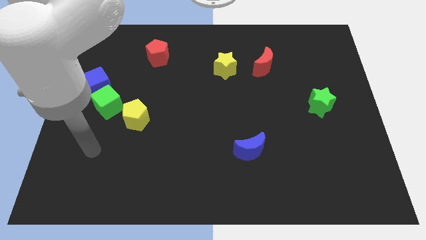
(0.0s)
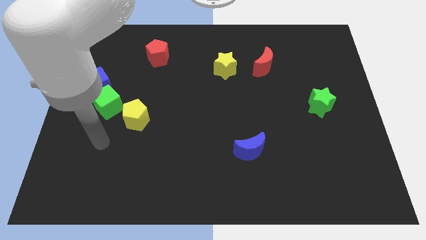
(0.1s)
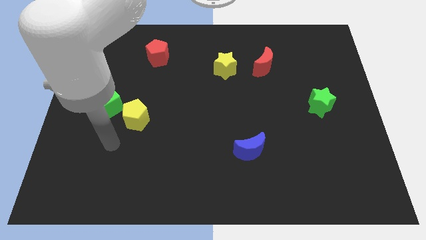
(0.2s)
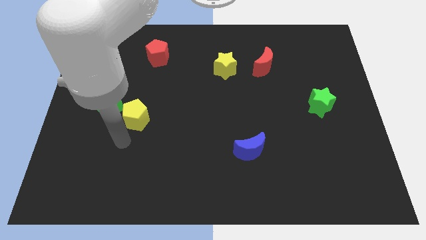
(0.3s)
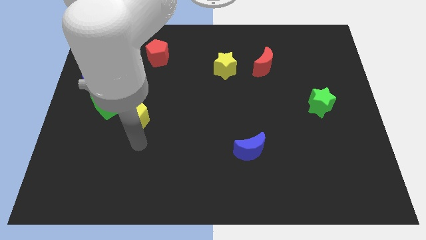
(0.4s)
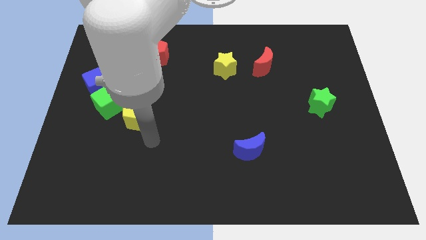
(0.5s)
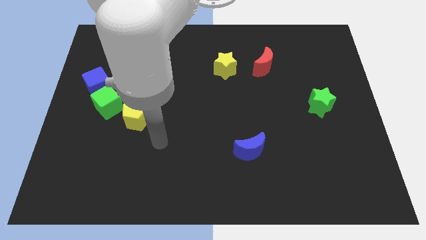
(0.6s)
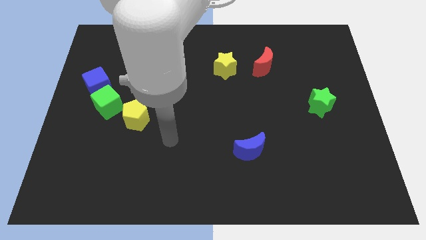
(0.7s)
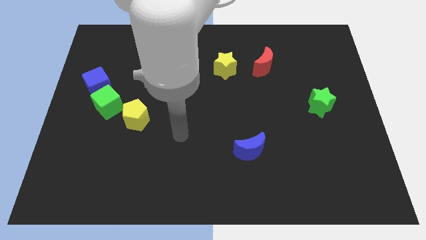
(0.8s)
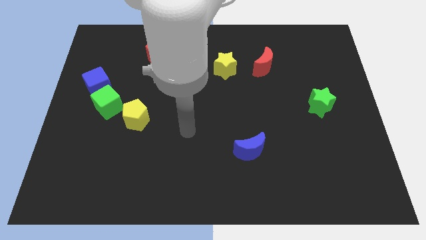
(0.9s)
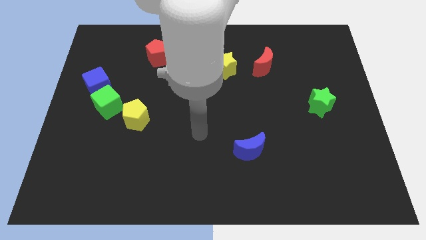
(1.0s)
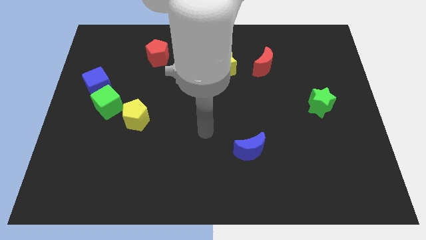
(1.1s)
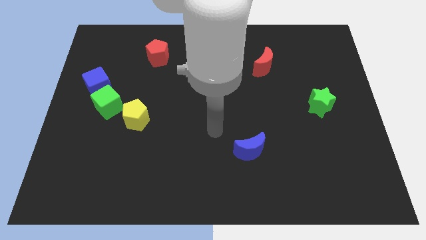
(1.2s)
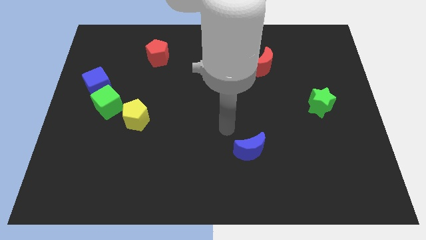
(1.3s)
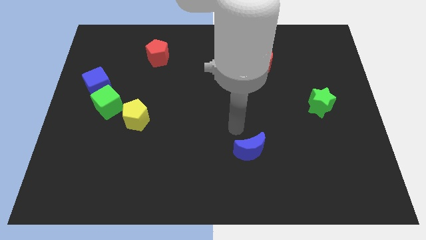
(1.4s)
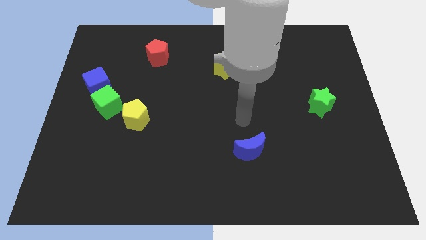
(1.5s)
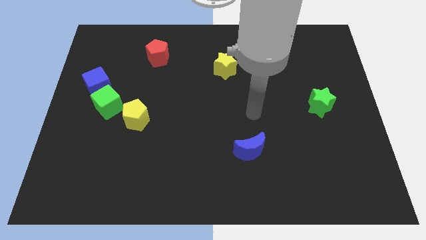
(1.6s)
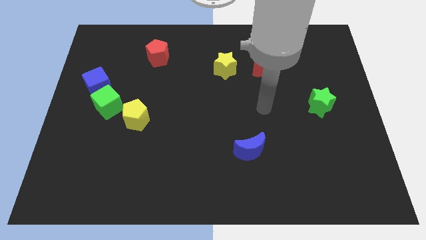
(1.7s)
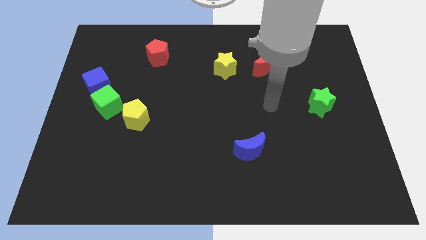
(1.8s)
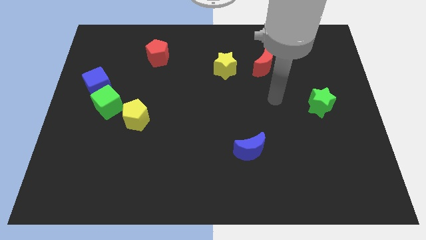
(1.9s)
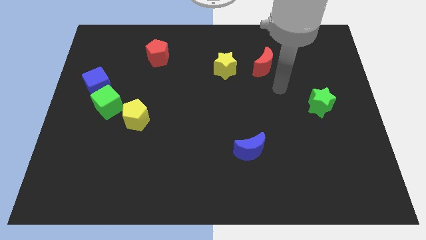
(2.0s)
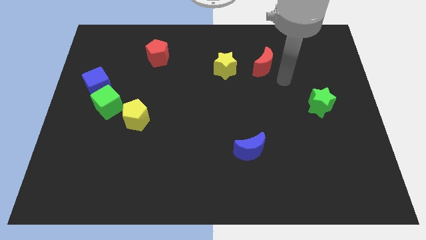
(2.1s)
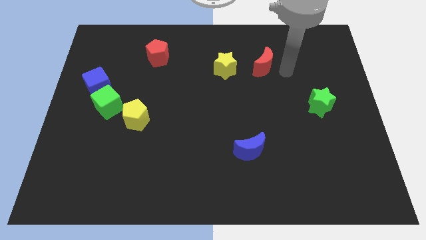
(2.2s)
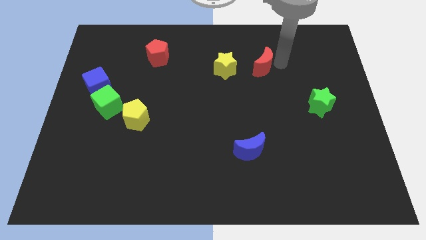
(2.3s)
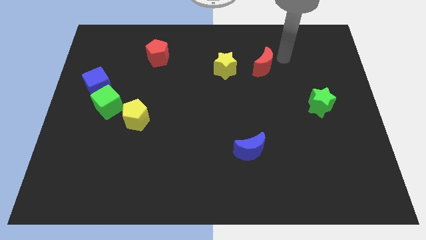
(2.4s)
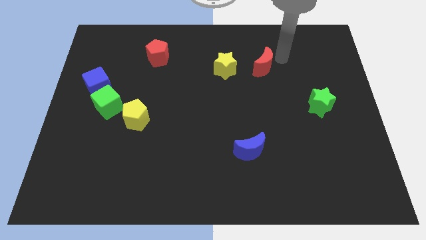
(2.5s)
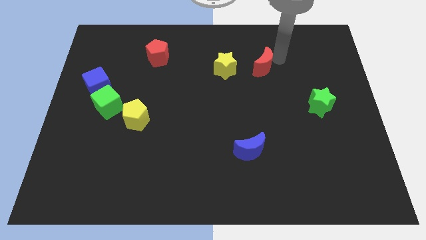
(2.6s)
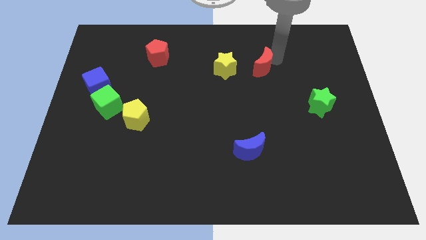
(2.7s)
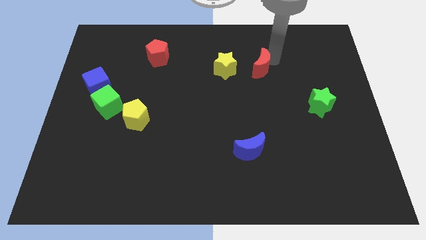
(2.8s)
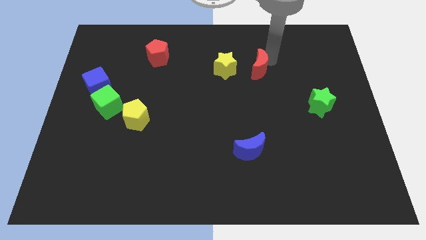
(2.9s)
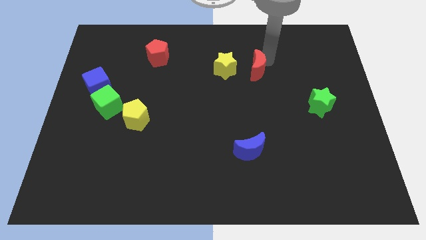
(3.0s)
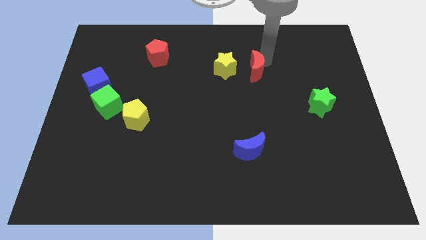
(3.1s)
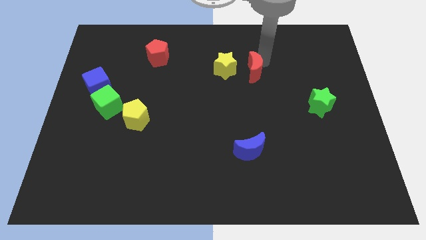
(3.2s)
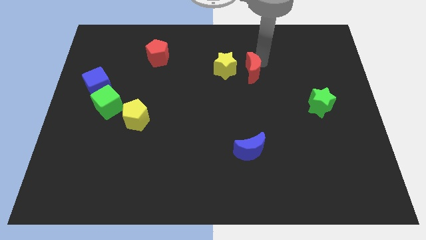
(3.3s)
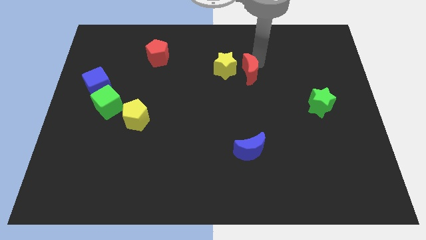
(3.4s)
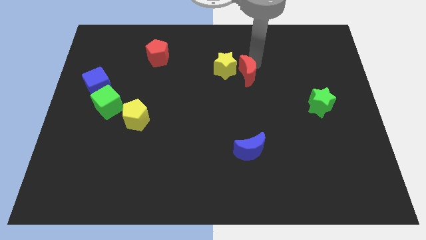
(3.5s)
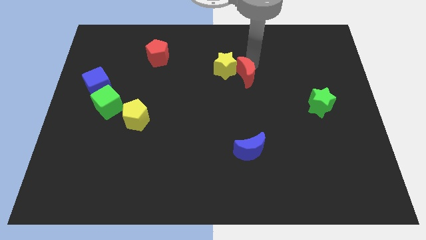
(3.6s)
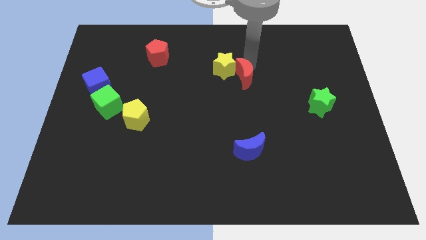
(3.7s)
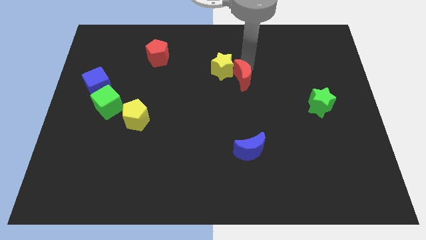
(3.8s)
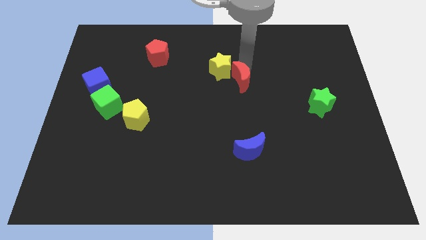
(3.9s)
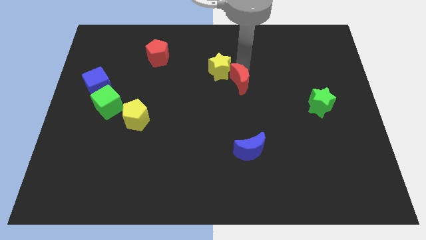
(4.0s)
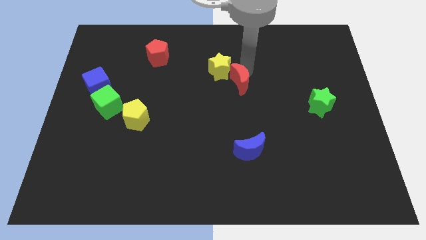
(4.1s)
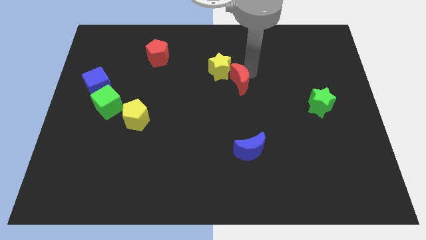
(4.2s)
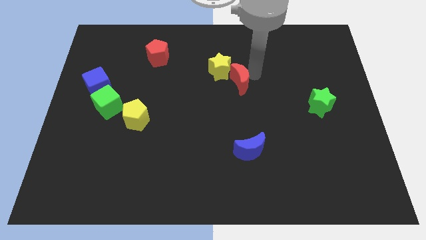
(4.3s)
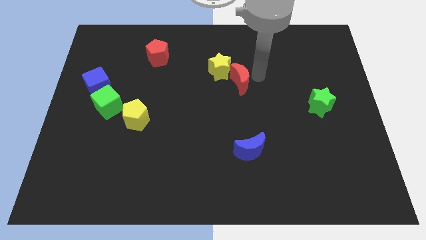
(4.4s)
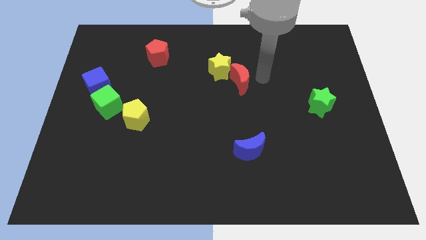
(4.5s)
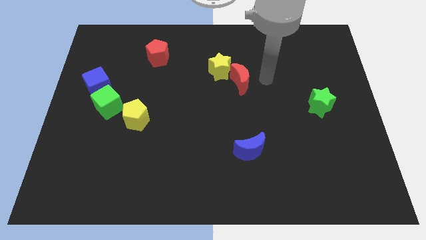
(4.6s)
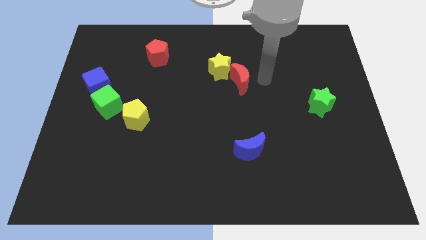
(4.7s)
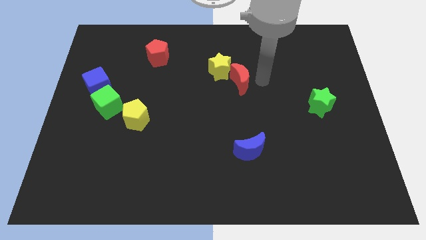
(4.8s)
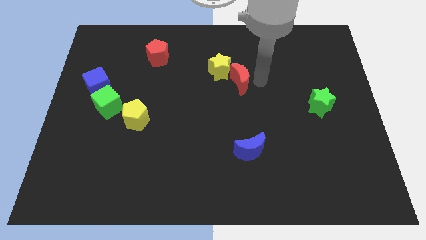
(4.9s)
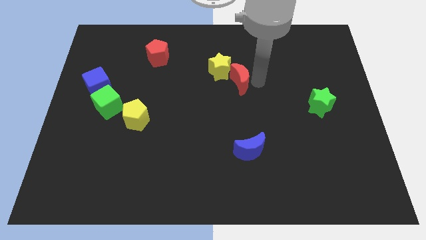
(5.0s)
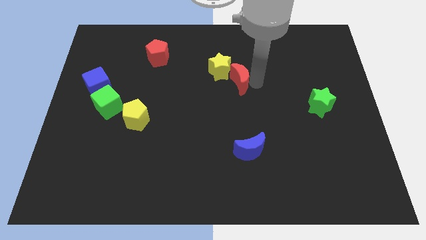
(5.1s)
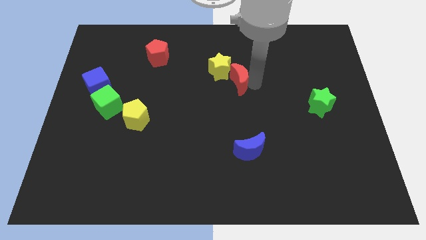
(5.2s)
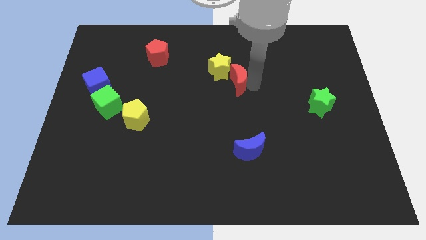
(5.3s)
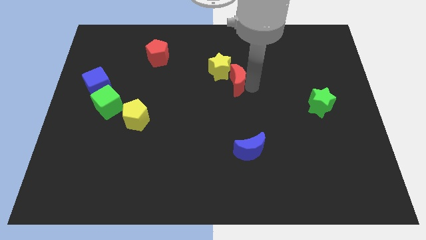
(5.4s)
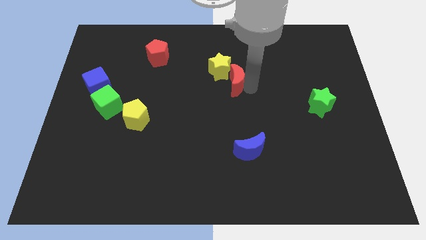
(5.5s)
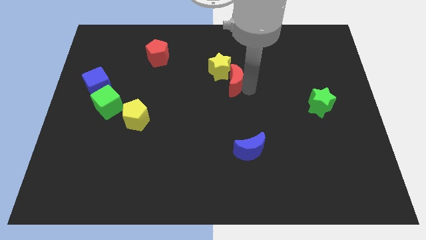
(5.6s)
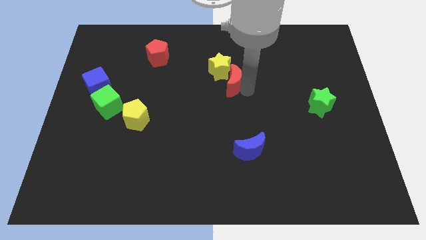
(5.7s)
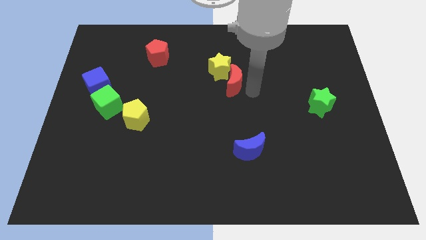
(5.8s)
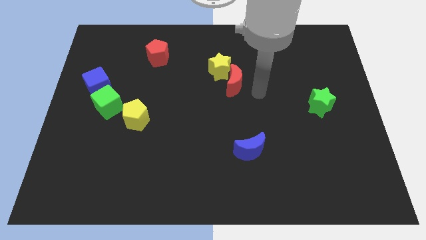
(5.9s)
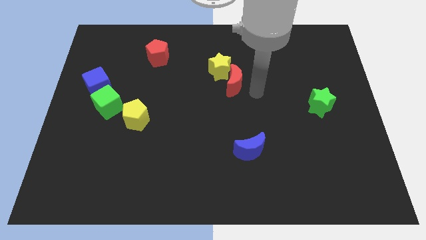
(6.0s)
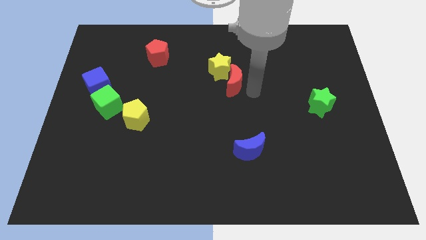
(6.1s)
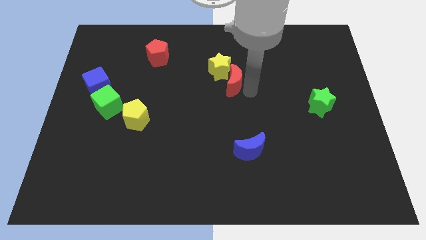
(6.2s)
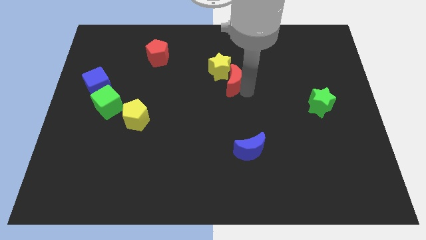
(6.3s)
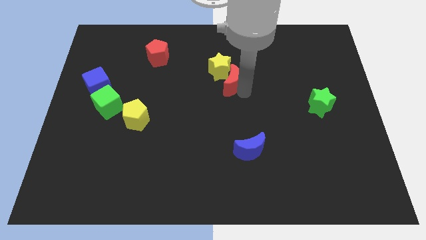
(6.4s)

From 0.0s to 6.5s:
slightly move the red moon left

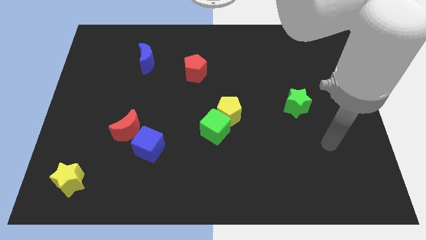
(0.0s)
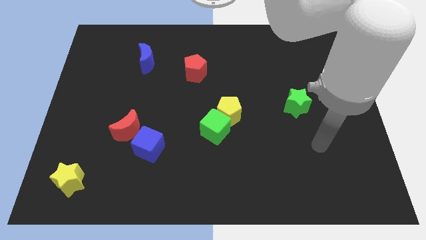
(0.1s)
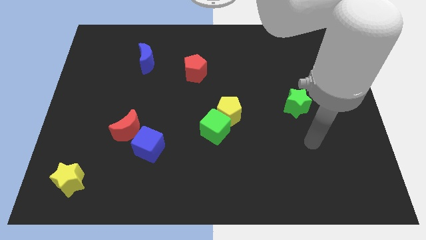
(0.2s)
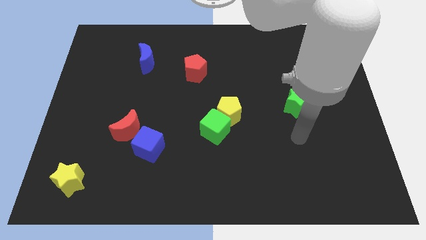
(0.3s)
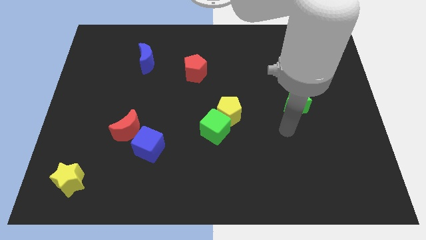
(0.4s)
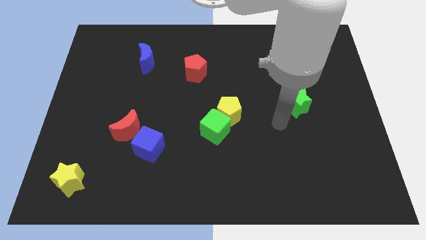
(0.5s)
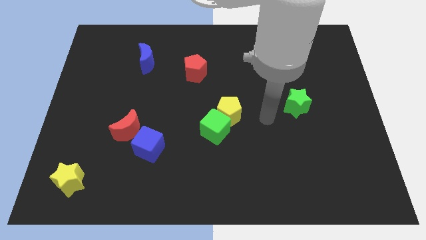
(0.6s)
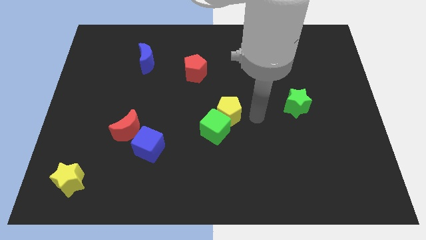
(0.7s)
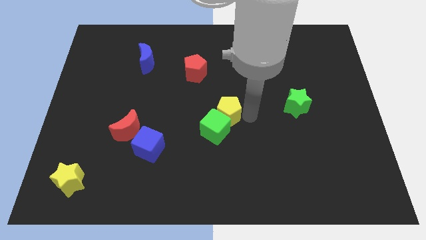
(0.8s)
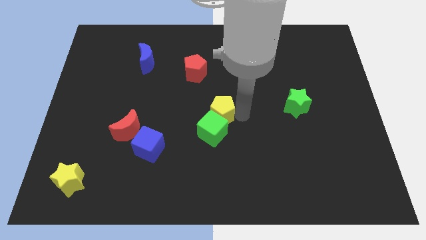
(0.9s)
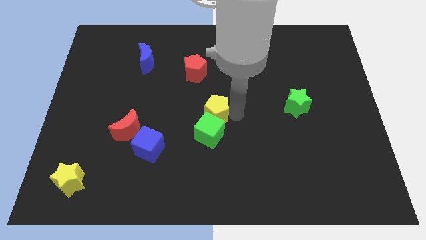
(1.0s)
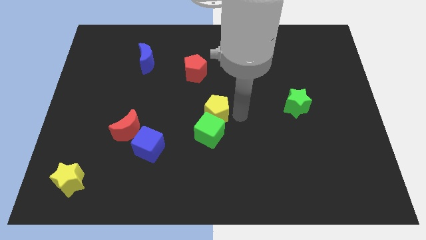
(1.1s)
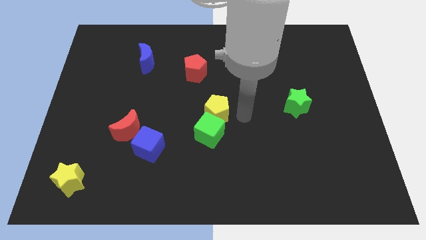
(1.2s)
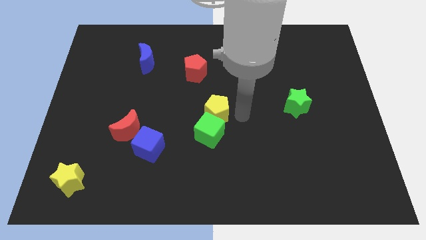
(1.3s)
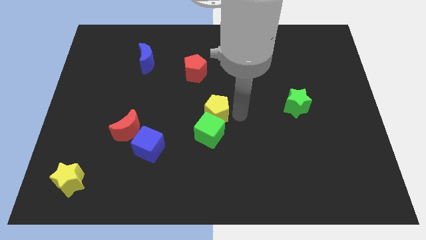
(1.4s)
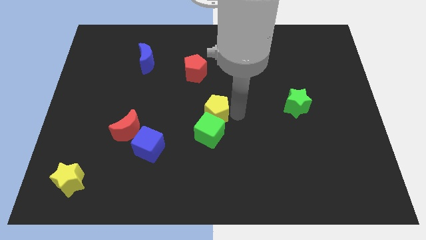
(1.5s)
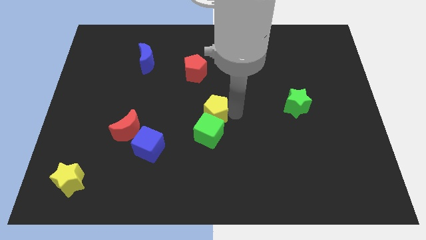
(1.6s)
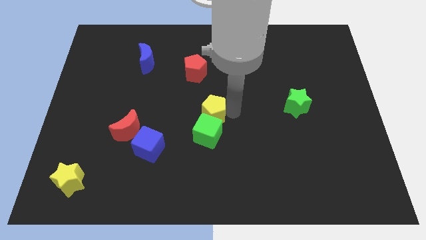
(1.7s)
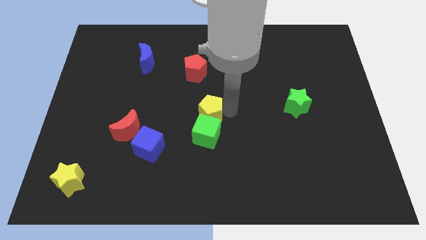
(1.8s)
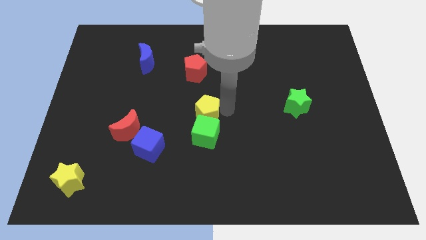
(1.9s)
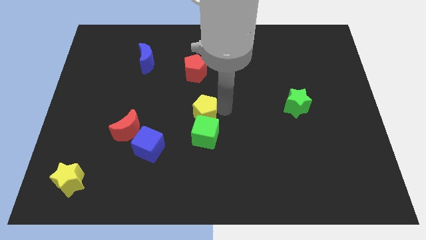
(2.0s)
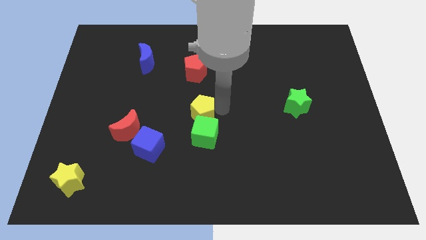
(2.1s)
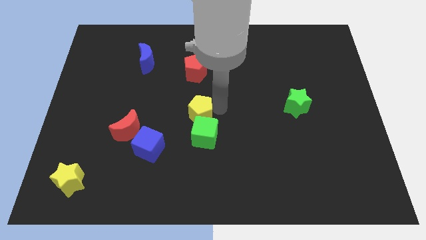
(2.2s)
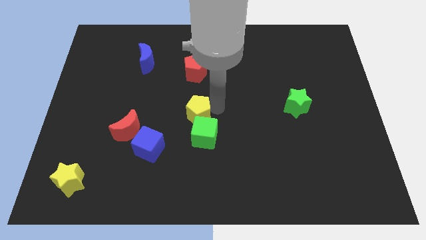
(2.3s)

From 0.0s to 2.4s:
slide the yellow pentagon to the left slightly
